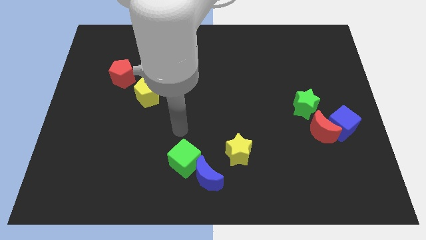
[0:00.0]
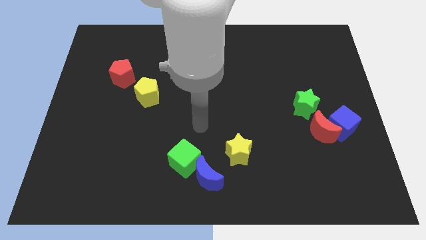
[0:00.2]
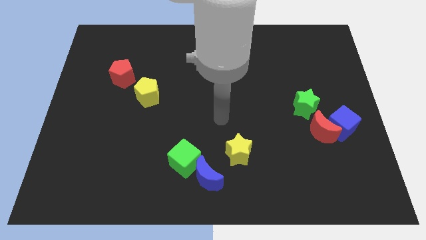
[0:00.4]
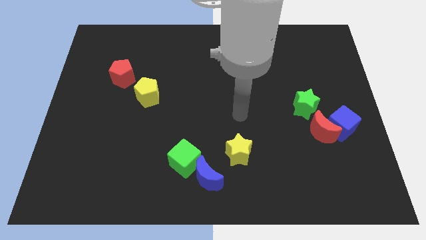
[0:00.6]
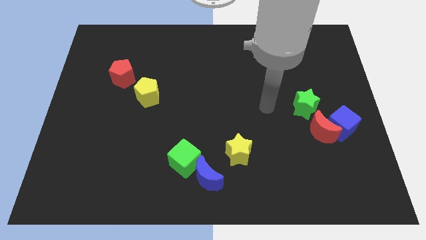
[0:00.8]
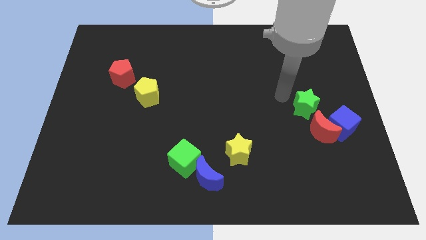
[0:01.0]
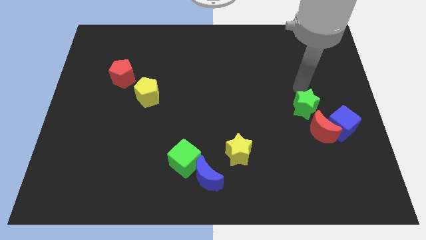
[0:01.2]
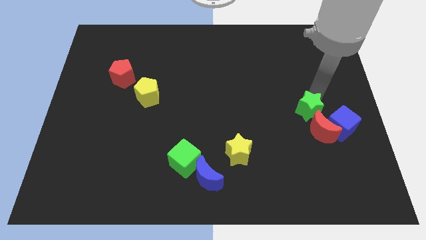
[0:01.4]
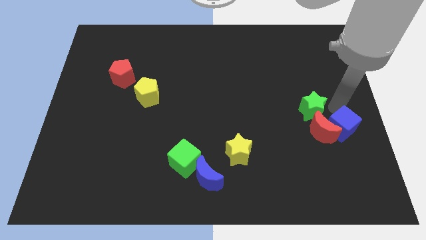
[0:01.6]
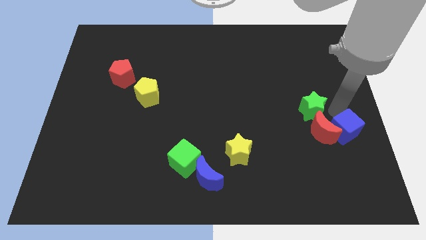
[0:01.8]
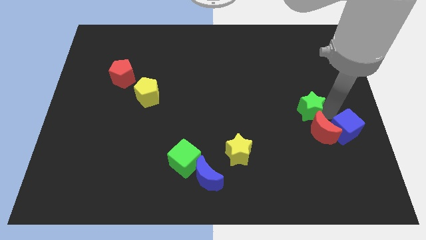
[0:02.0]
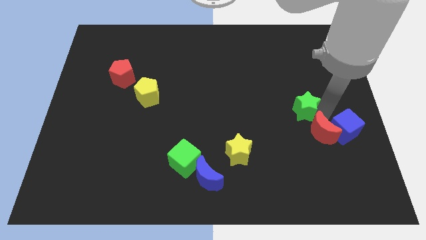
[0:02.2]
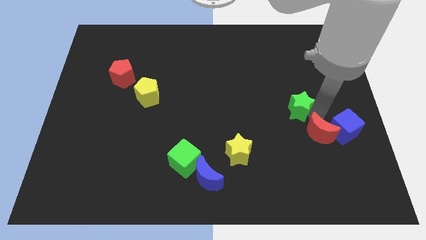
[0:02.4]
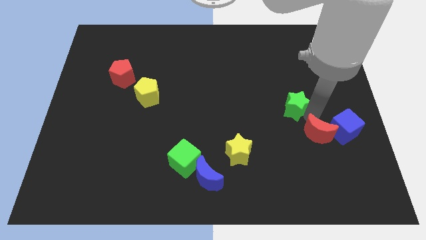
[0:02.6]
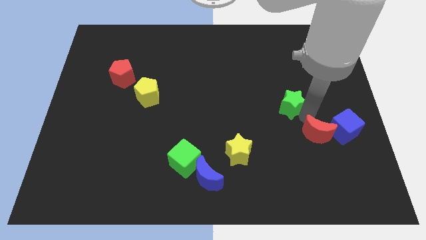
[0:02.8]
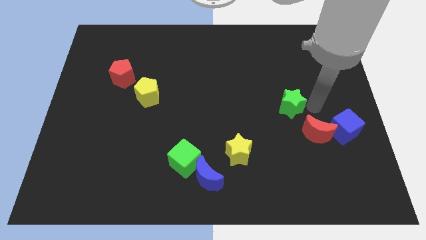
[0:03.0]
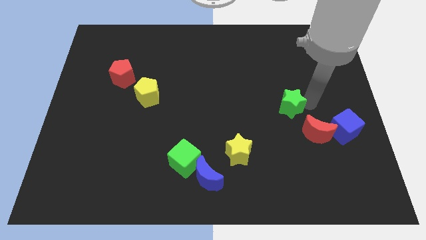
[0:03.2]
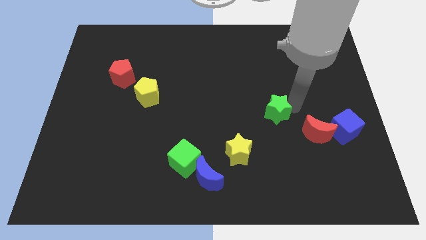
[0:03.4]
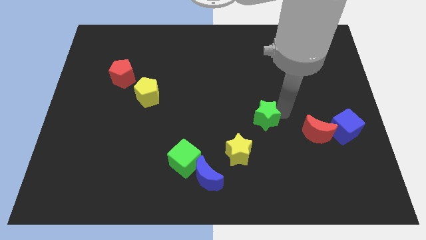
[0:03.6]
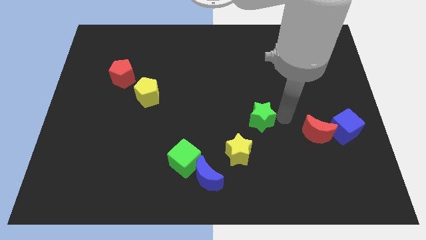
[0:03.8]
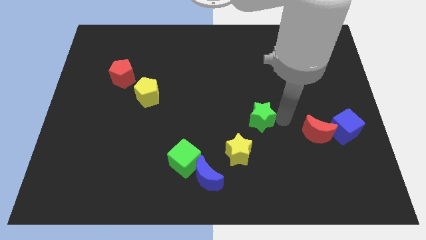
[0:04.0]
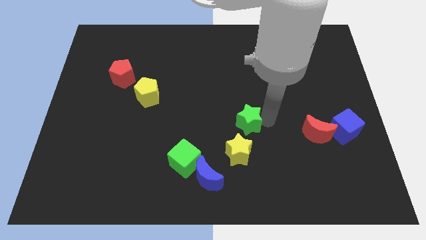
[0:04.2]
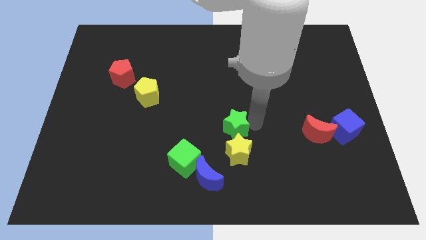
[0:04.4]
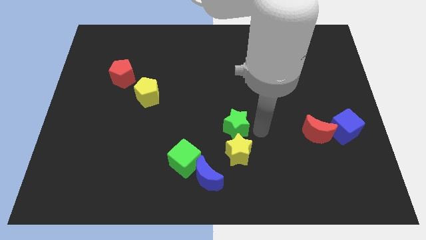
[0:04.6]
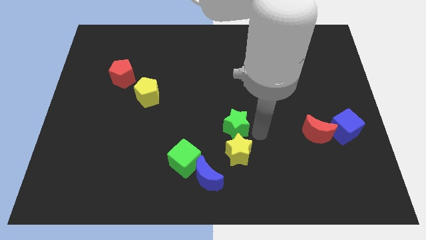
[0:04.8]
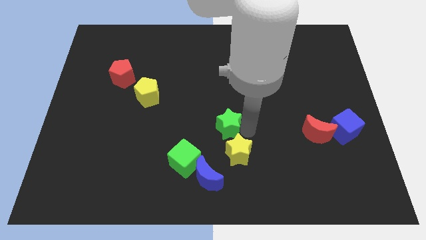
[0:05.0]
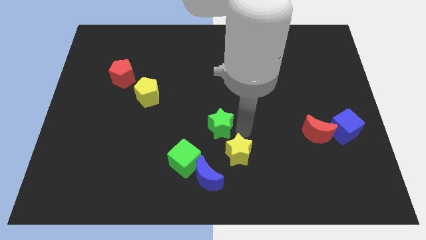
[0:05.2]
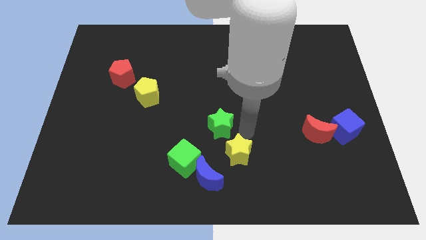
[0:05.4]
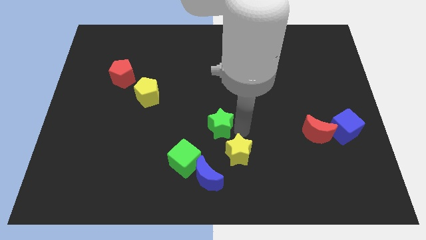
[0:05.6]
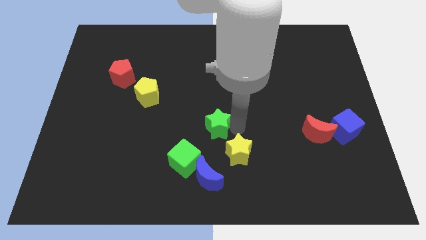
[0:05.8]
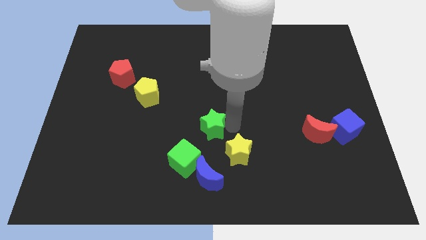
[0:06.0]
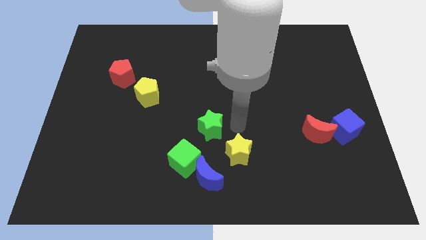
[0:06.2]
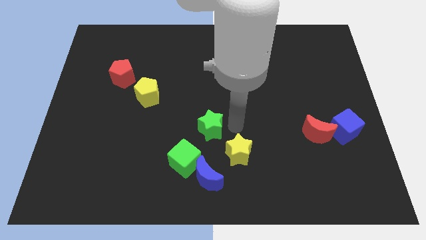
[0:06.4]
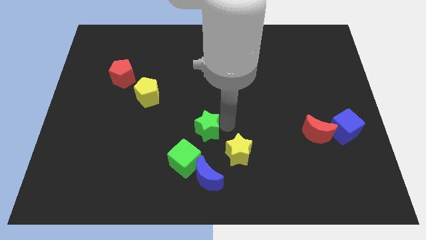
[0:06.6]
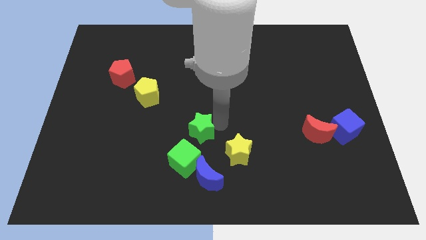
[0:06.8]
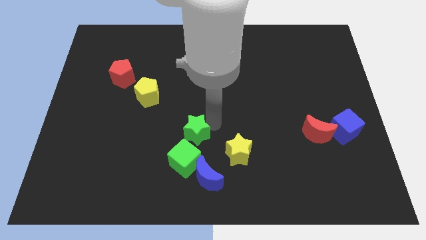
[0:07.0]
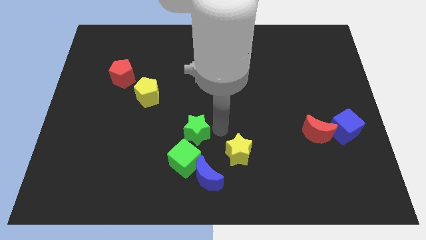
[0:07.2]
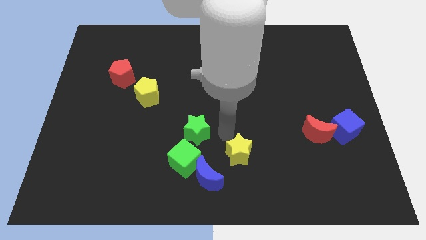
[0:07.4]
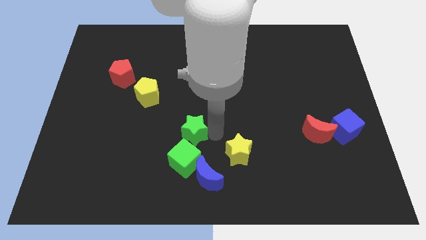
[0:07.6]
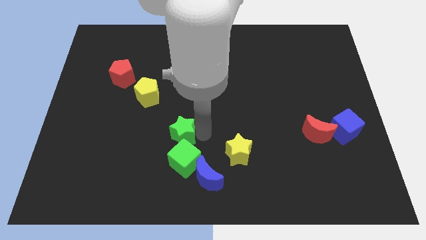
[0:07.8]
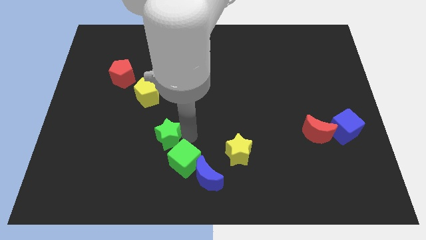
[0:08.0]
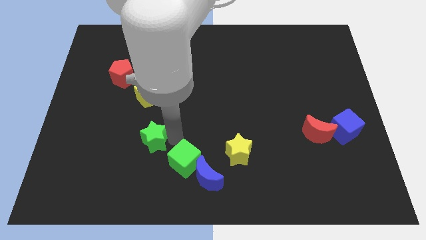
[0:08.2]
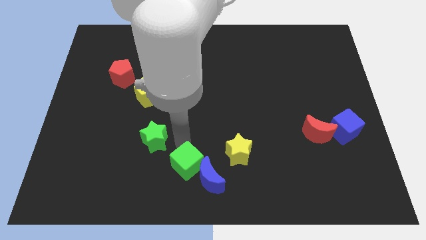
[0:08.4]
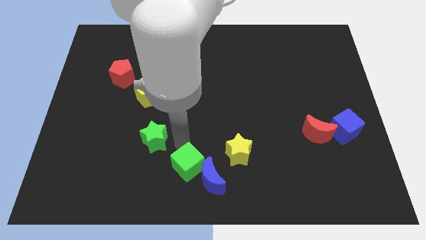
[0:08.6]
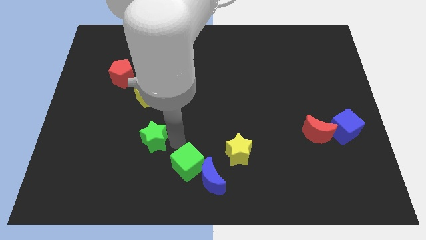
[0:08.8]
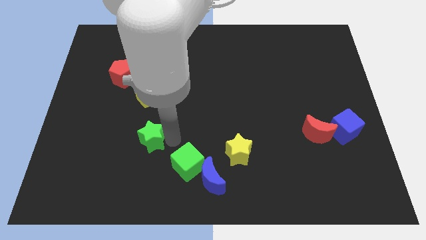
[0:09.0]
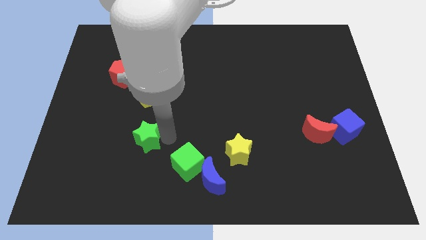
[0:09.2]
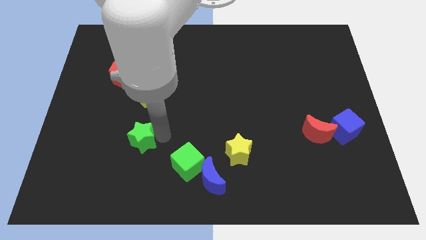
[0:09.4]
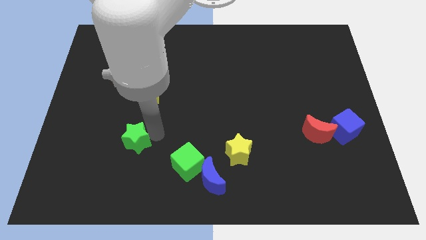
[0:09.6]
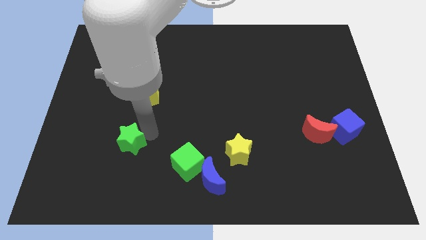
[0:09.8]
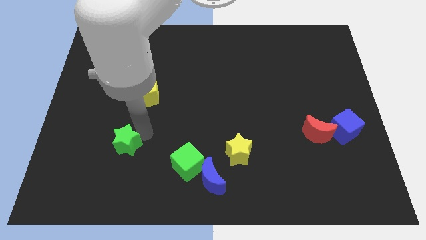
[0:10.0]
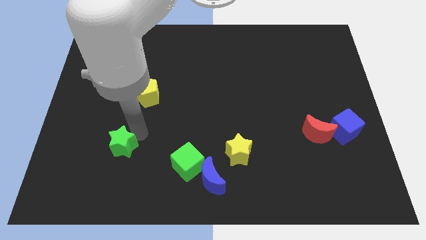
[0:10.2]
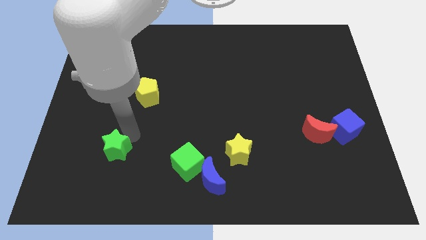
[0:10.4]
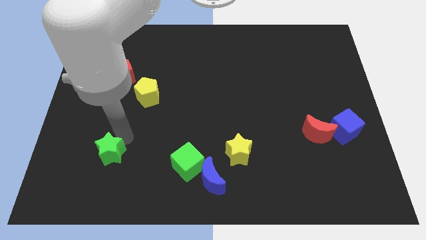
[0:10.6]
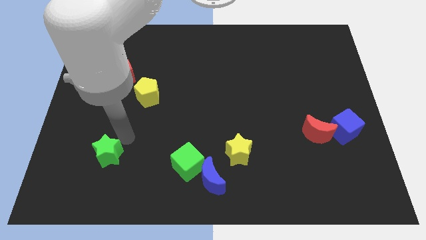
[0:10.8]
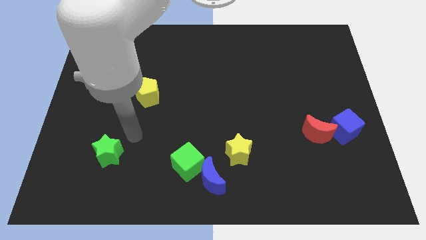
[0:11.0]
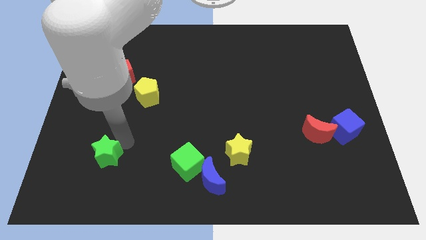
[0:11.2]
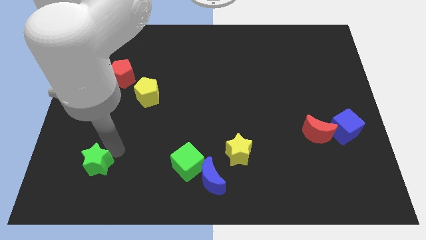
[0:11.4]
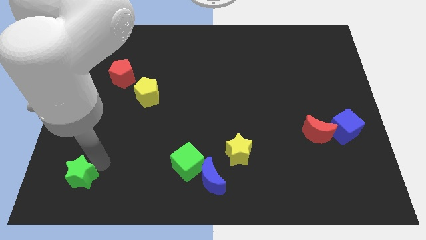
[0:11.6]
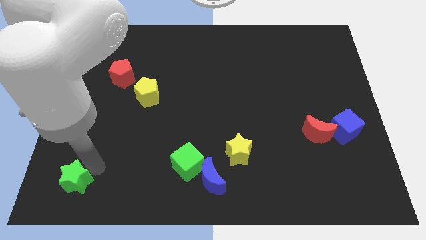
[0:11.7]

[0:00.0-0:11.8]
slide the green star to the bottom left of the board
